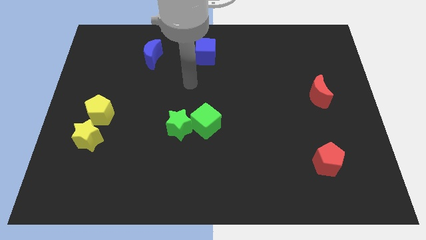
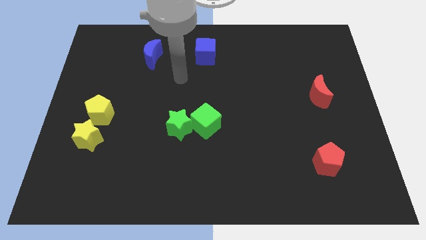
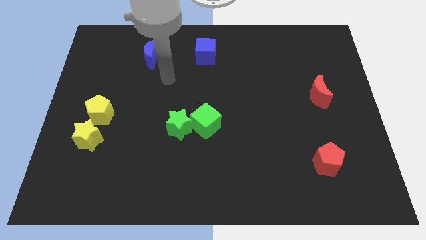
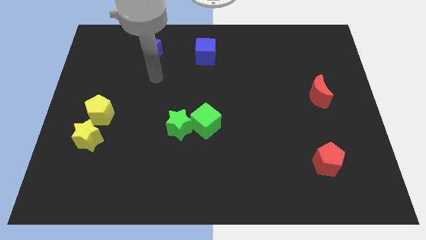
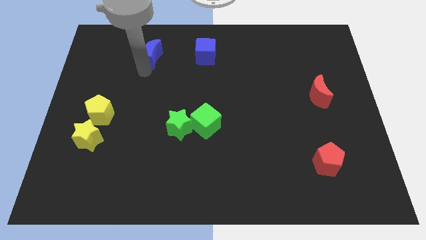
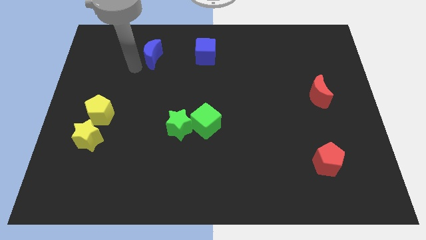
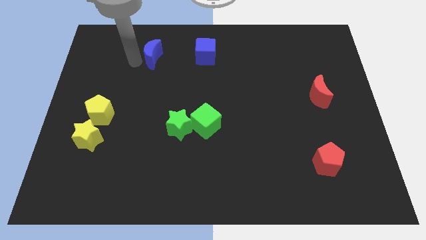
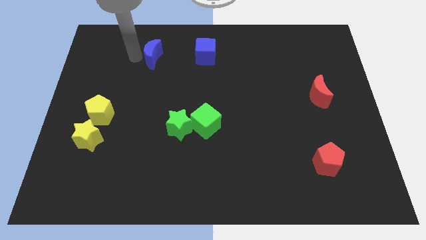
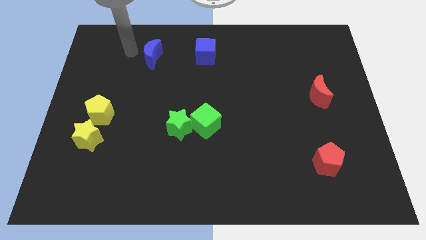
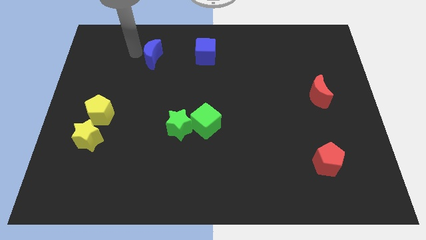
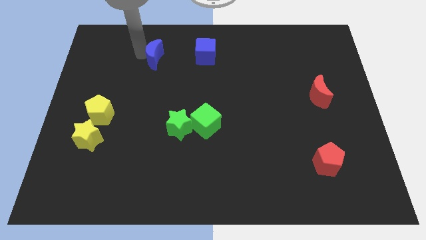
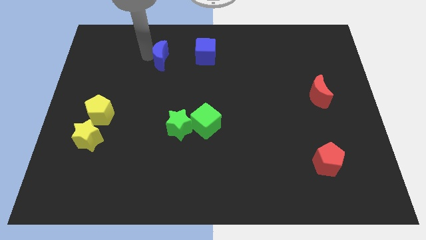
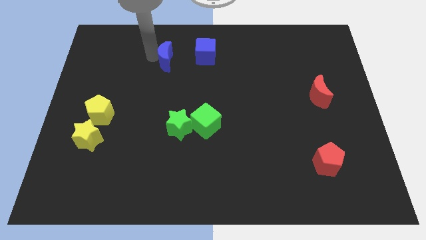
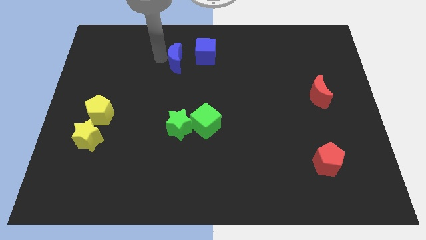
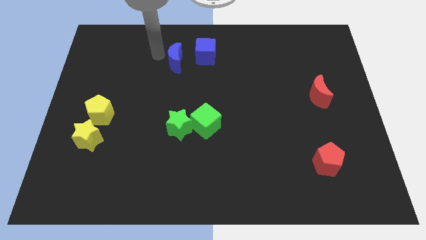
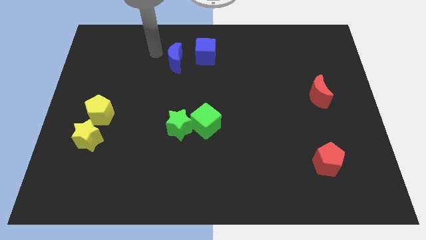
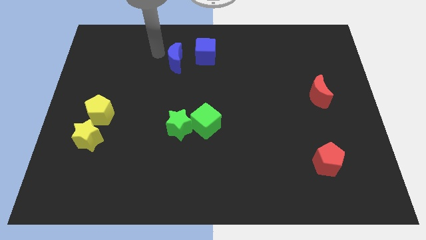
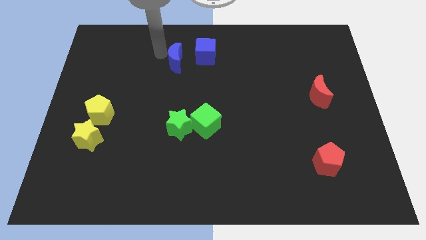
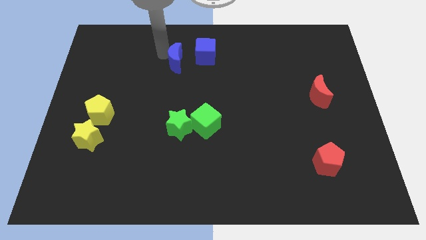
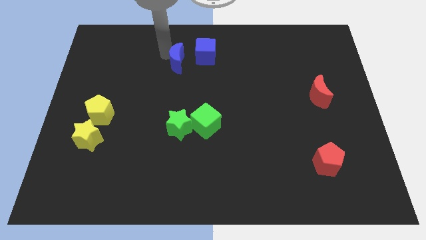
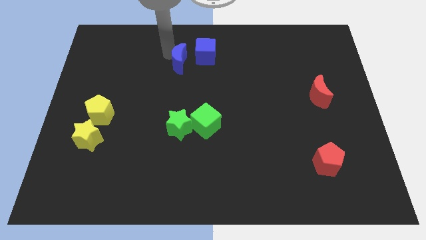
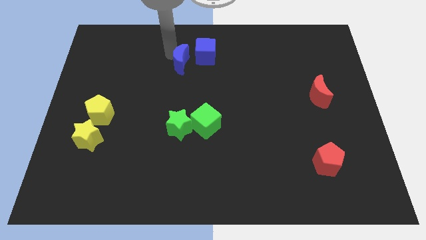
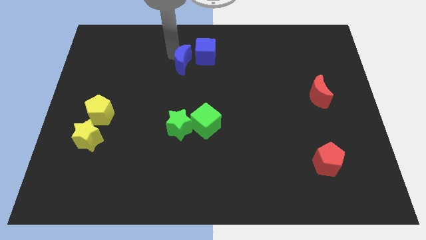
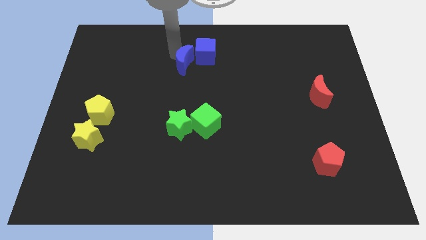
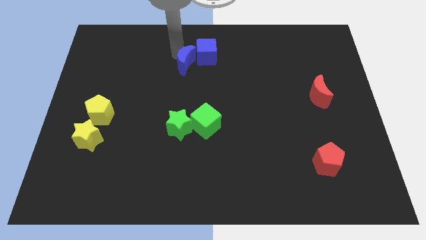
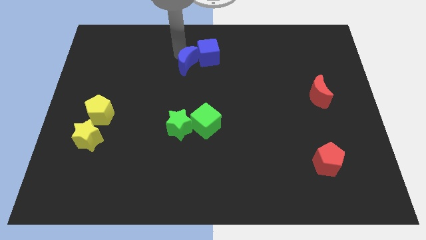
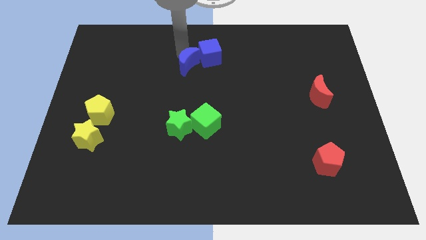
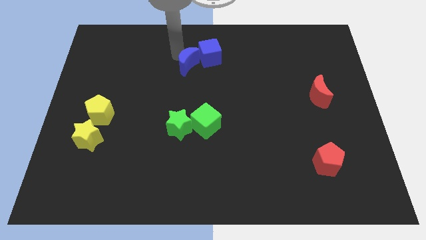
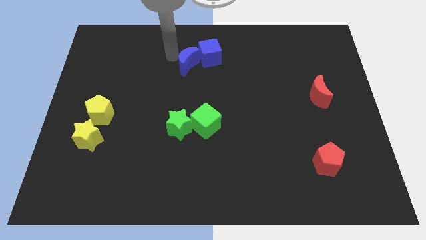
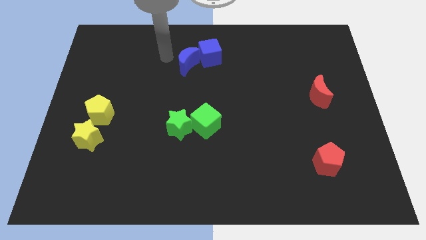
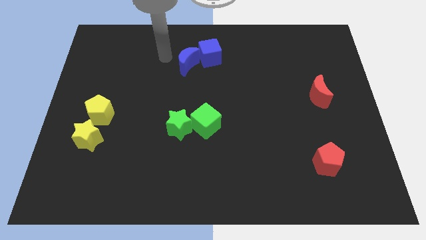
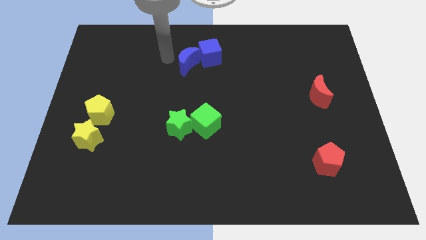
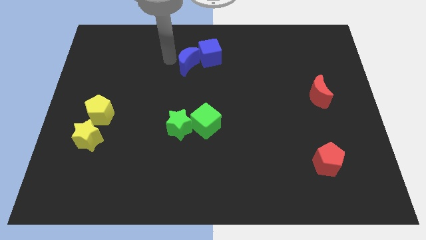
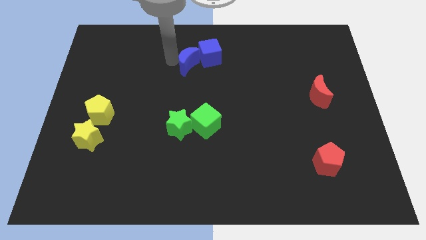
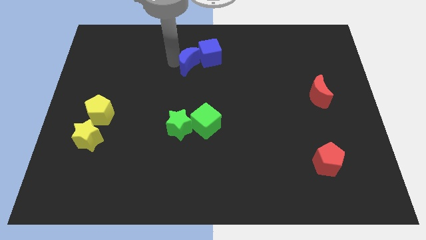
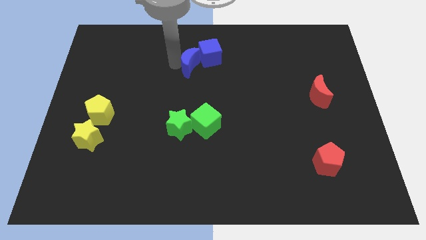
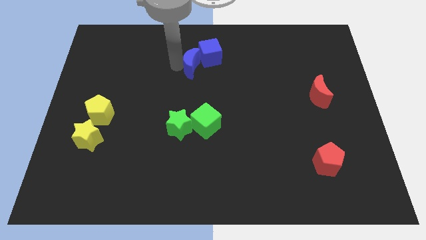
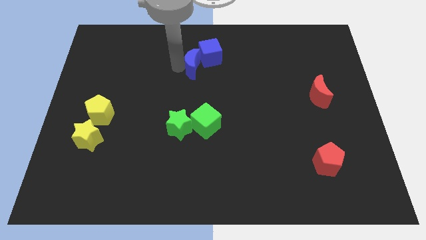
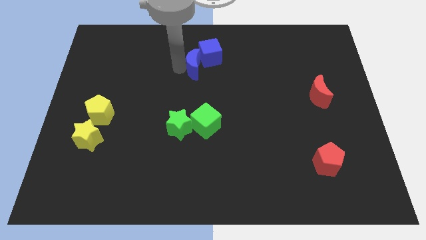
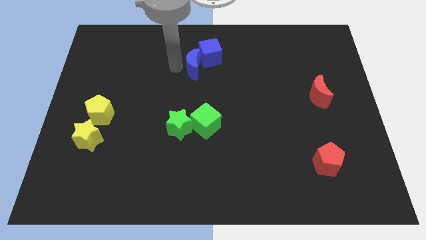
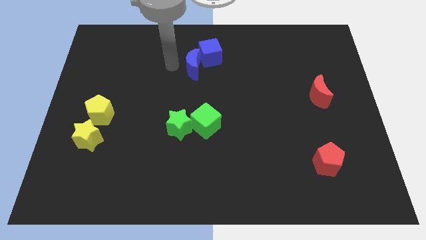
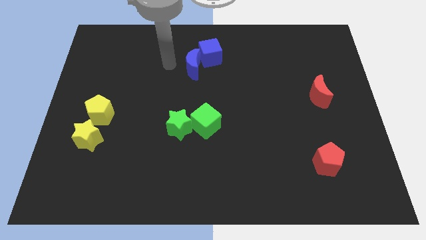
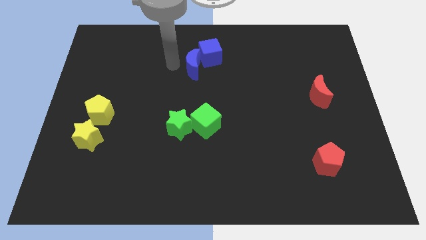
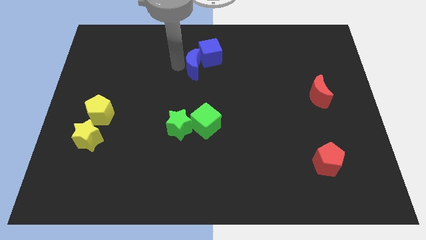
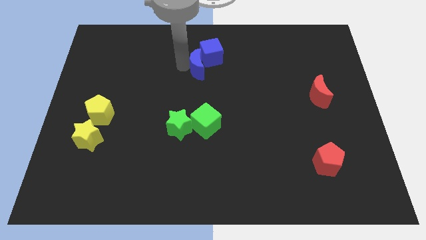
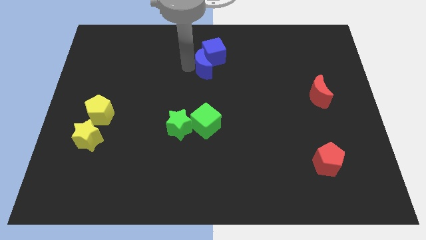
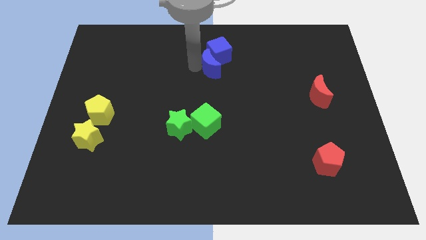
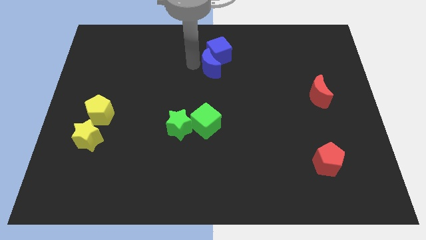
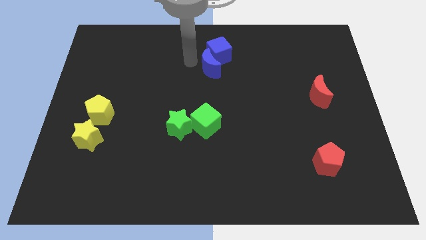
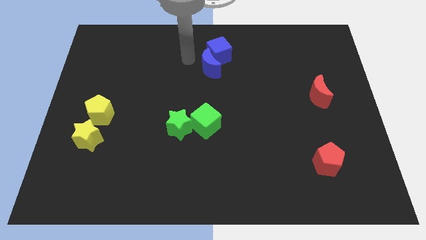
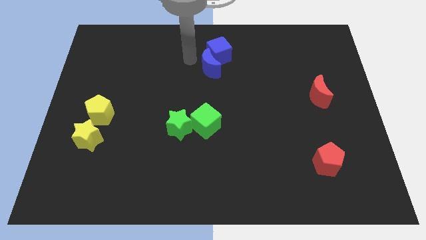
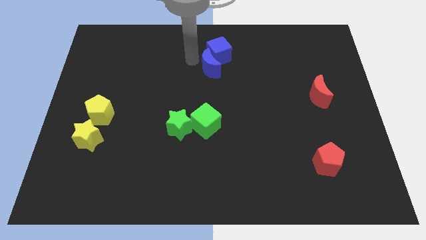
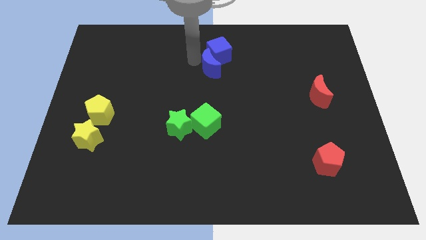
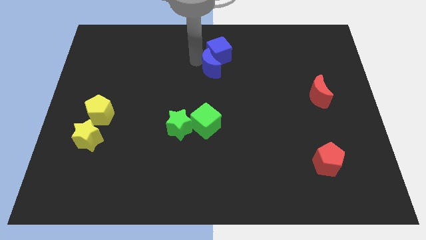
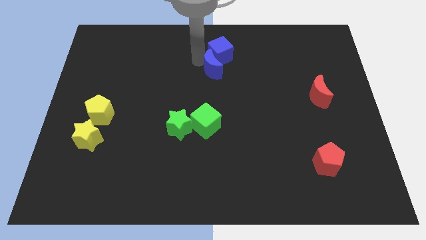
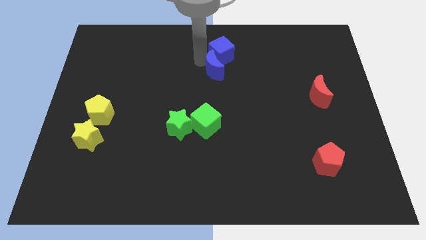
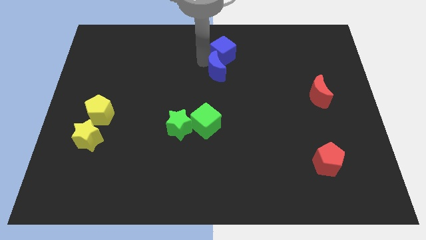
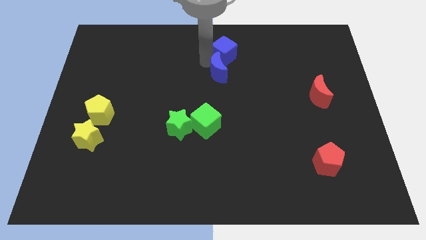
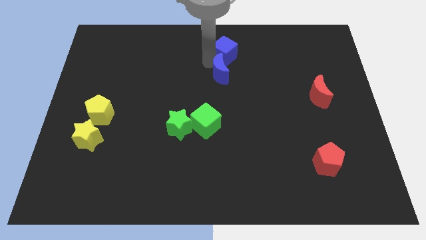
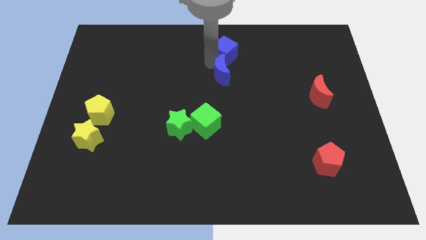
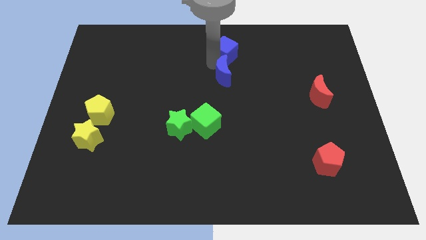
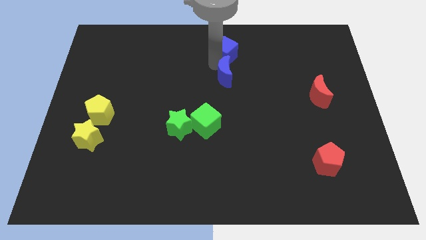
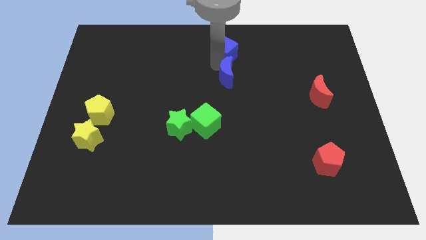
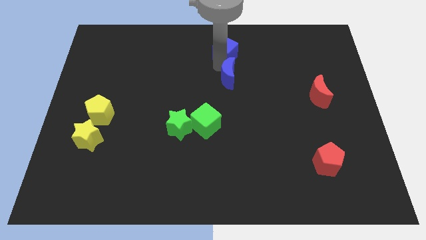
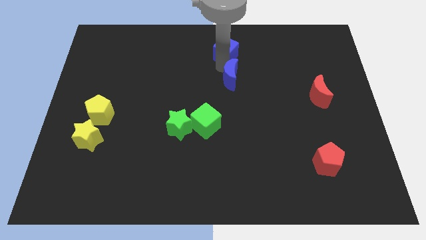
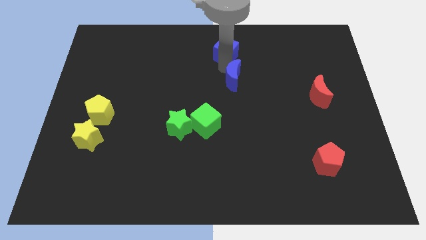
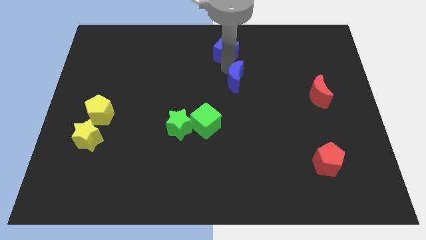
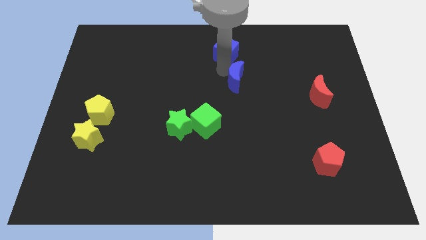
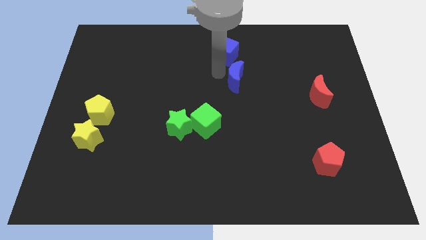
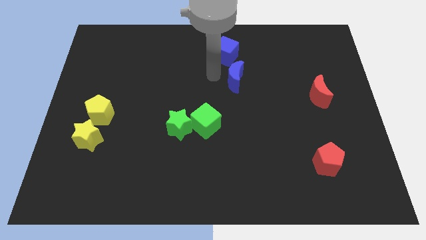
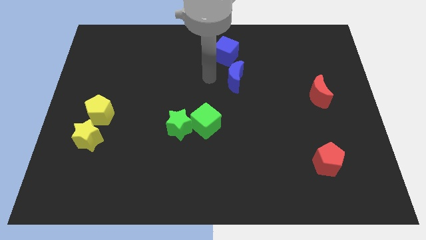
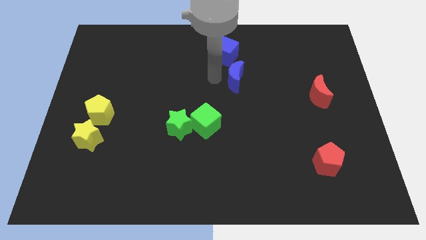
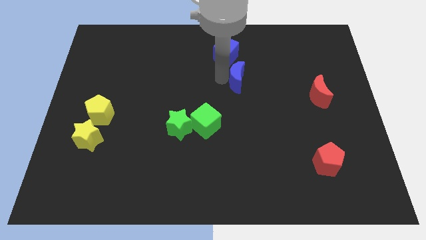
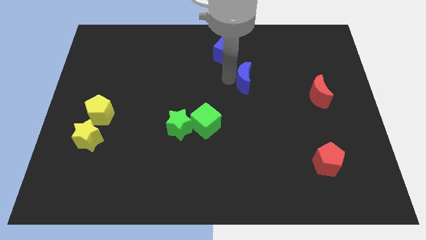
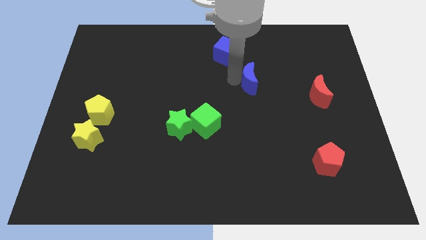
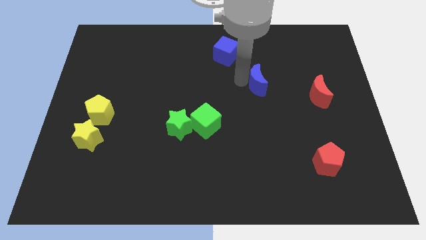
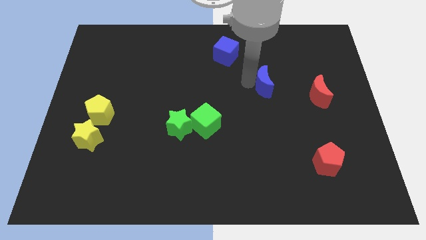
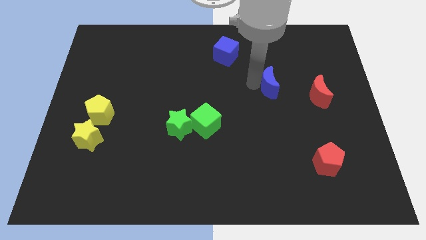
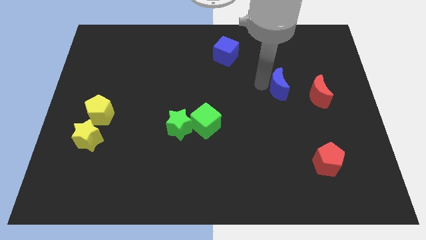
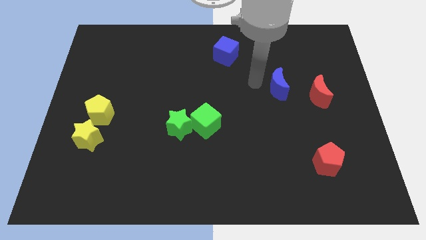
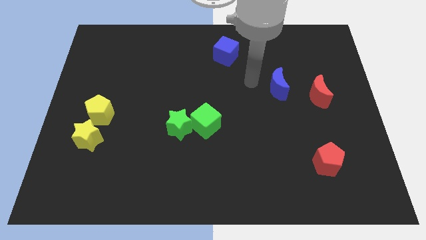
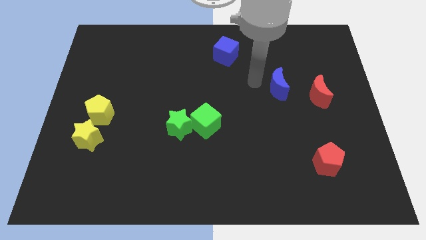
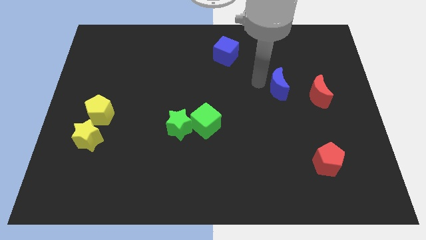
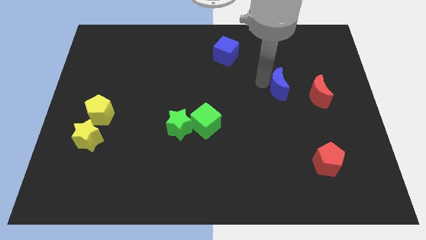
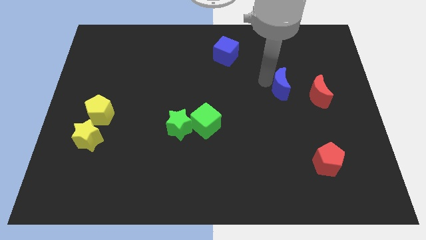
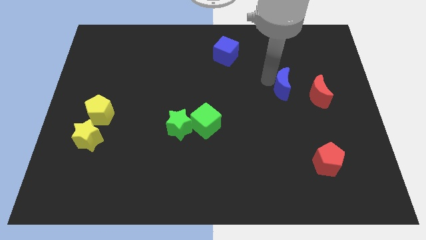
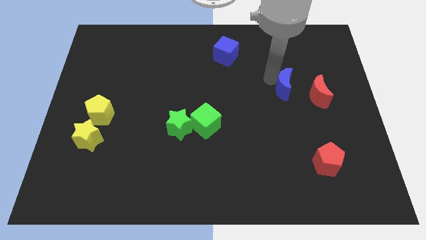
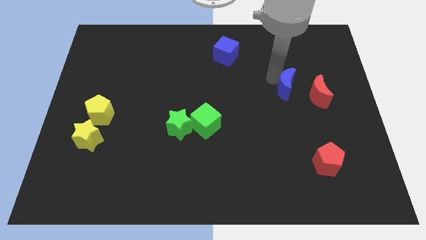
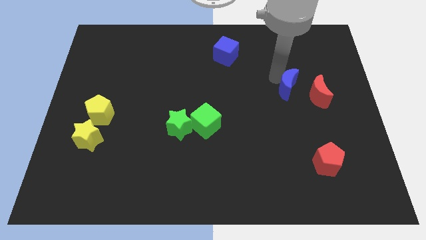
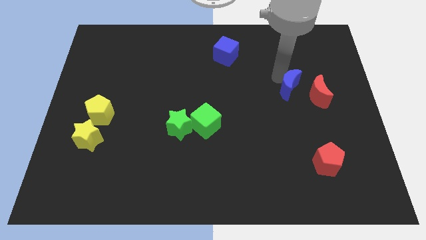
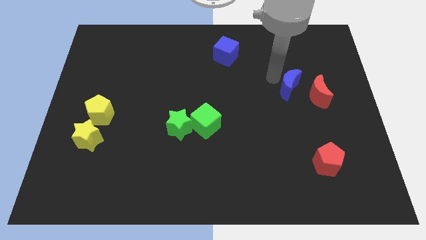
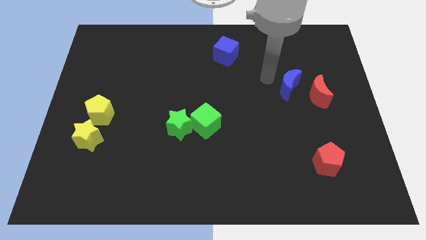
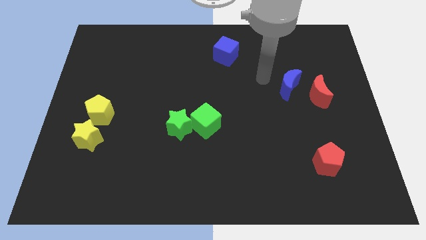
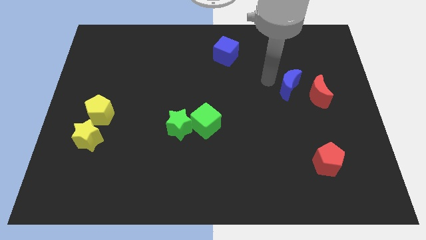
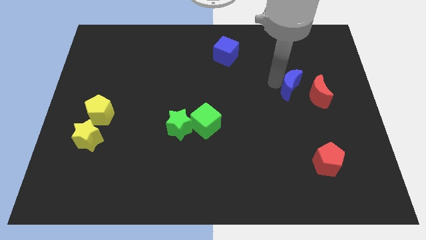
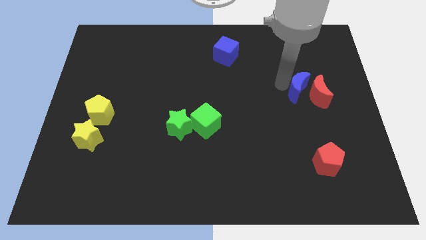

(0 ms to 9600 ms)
push the blue moon to the red moon
